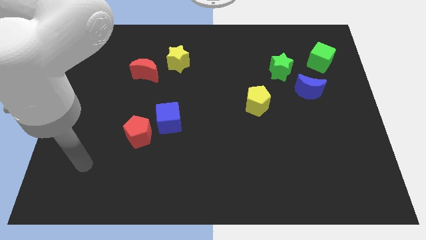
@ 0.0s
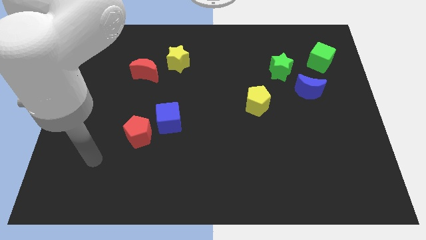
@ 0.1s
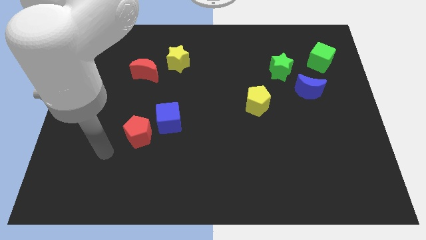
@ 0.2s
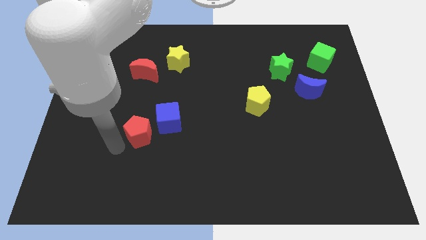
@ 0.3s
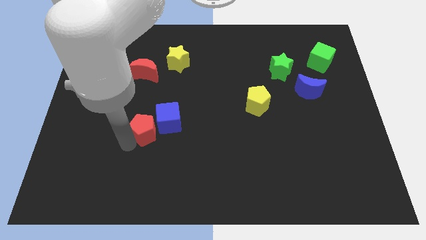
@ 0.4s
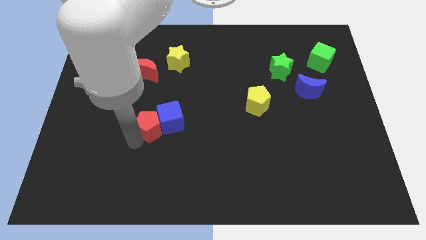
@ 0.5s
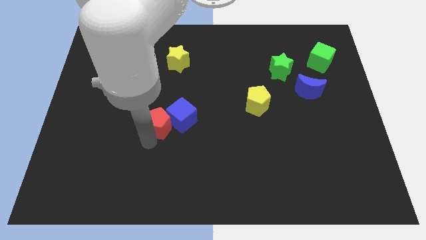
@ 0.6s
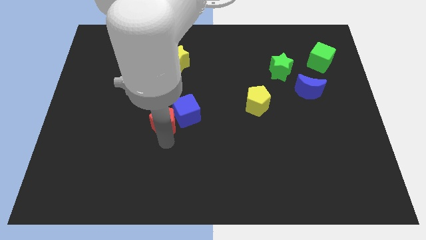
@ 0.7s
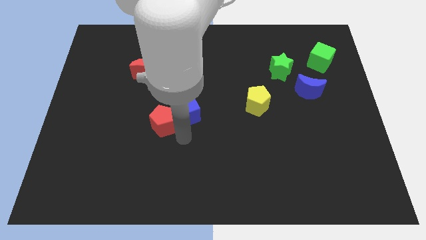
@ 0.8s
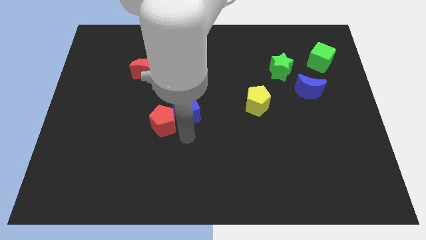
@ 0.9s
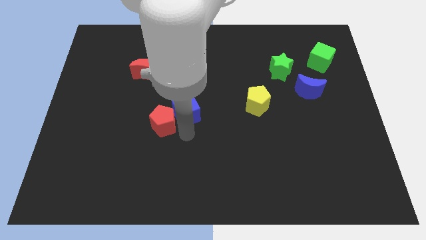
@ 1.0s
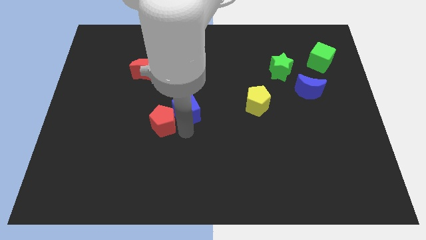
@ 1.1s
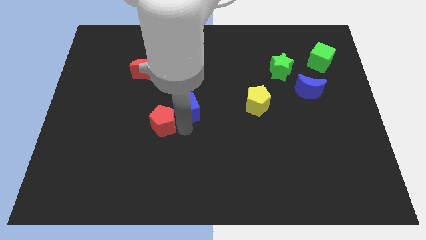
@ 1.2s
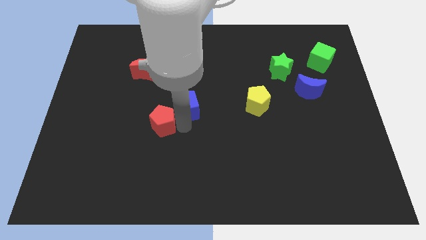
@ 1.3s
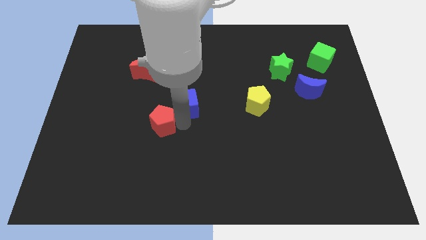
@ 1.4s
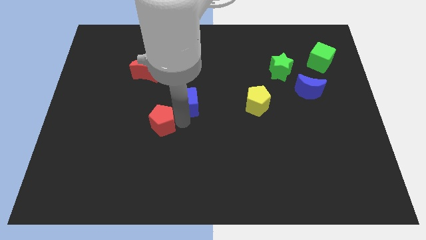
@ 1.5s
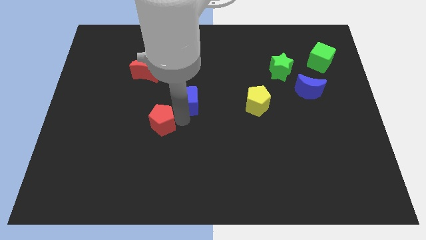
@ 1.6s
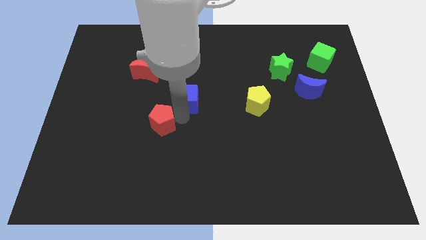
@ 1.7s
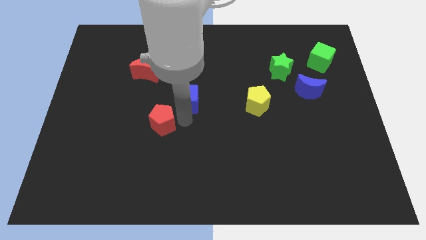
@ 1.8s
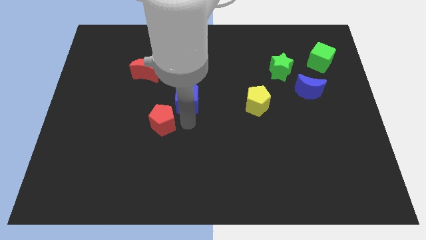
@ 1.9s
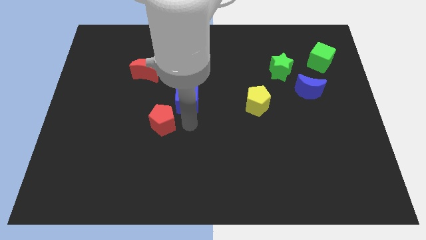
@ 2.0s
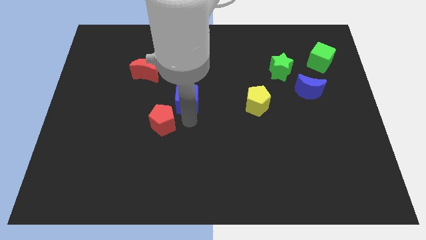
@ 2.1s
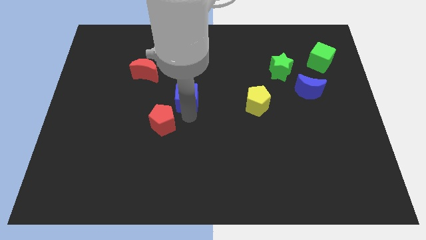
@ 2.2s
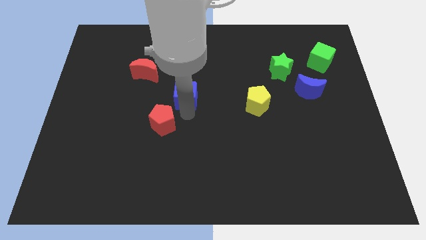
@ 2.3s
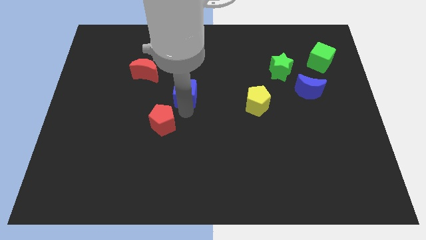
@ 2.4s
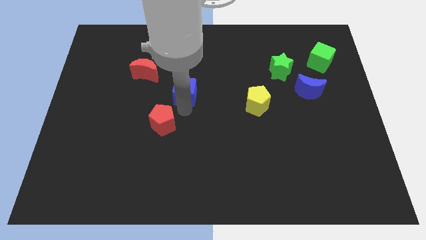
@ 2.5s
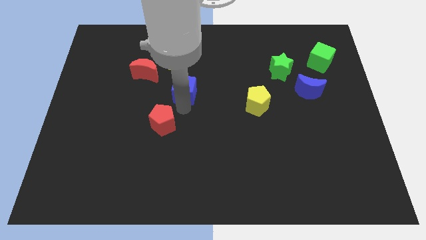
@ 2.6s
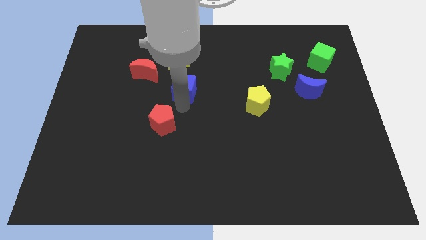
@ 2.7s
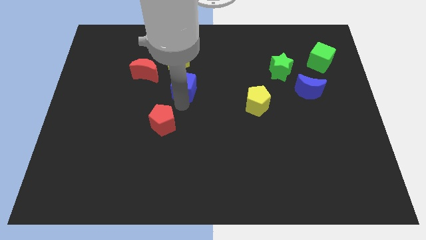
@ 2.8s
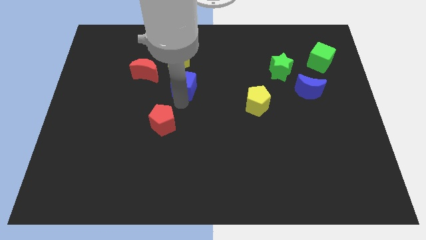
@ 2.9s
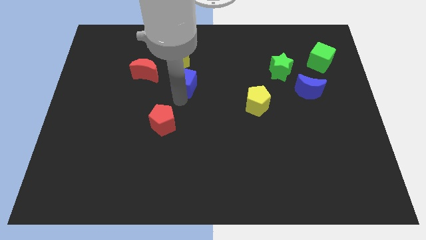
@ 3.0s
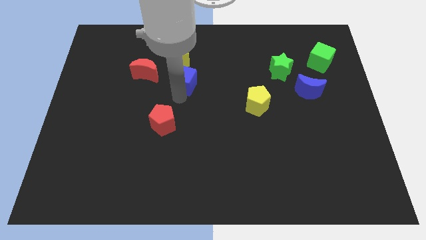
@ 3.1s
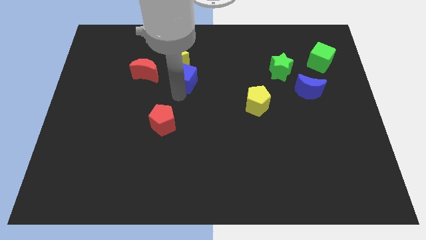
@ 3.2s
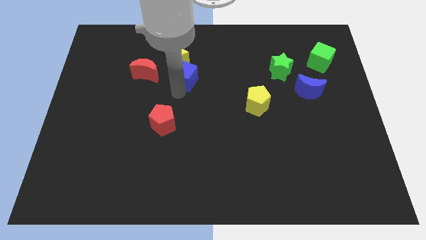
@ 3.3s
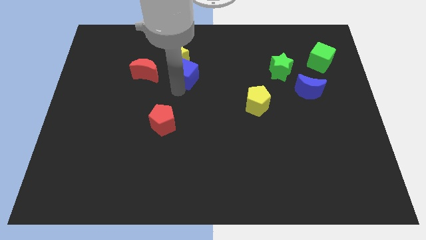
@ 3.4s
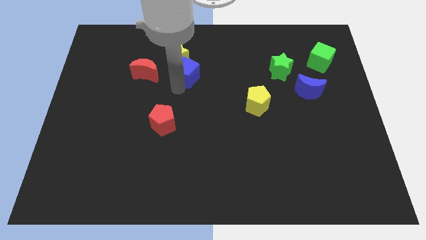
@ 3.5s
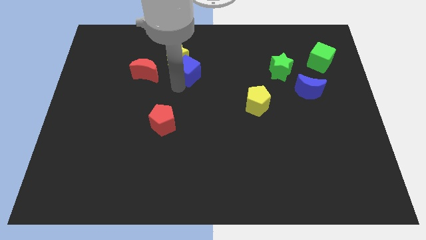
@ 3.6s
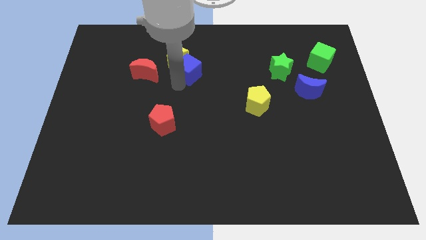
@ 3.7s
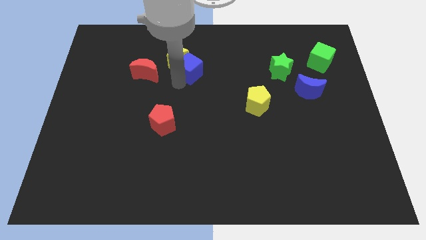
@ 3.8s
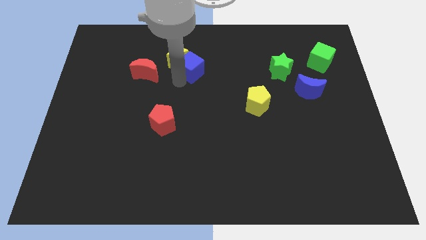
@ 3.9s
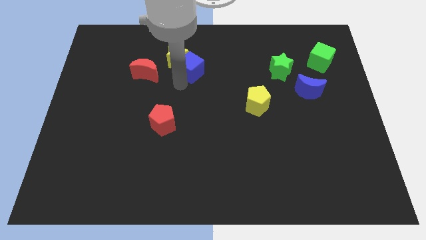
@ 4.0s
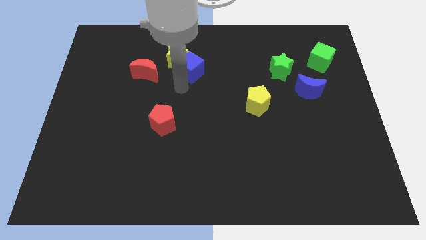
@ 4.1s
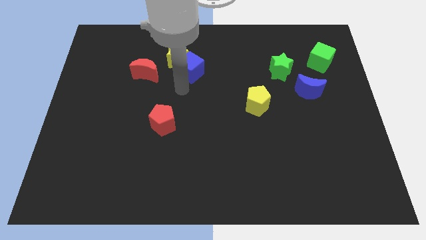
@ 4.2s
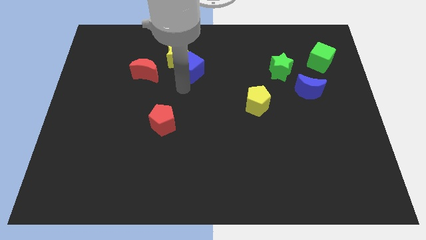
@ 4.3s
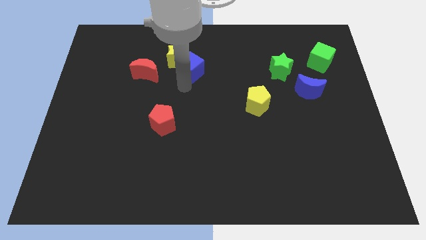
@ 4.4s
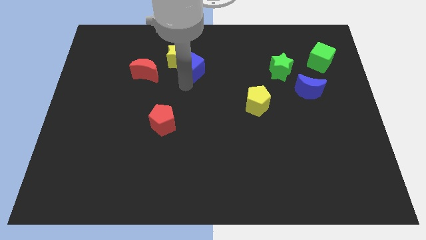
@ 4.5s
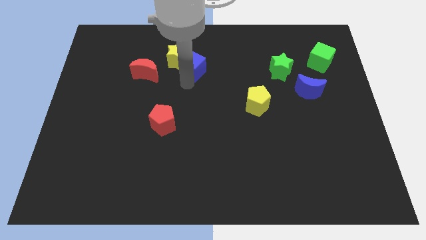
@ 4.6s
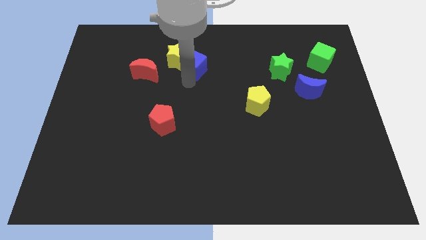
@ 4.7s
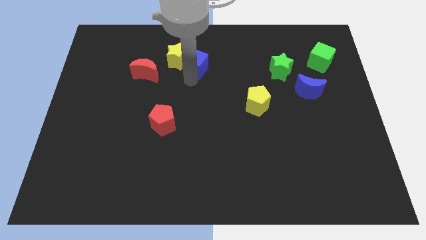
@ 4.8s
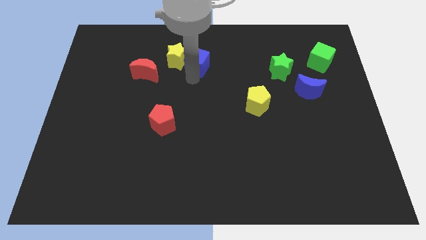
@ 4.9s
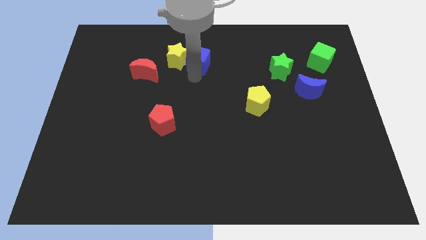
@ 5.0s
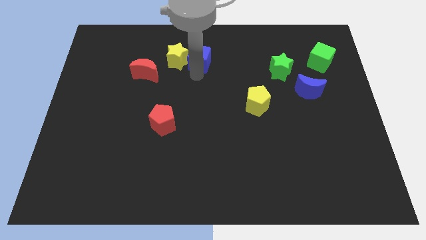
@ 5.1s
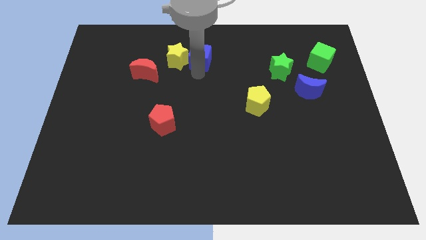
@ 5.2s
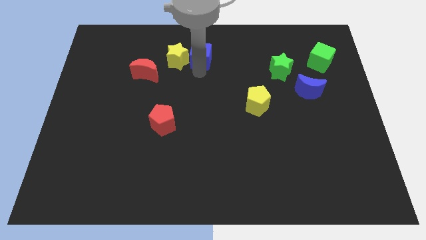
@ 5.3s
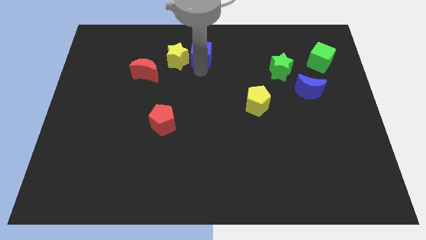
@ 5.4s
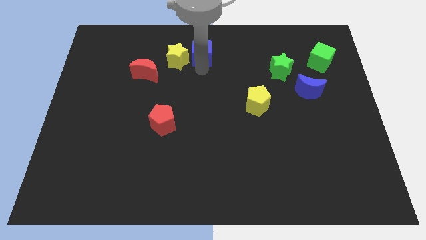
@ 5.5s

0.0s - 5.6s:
slide the blue cube to the top side
